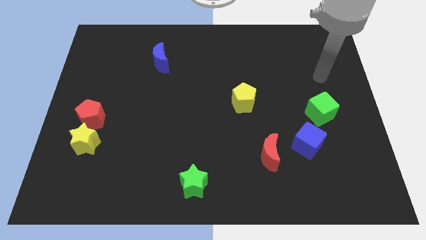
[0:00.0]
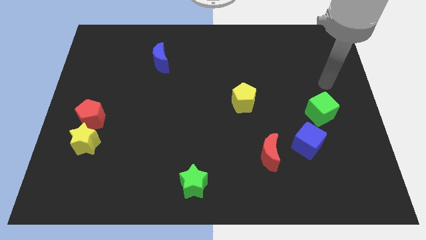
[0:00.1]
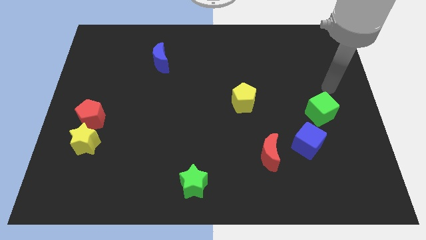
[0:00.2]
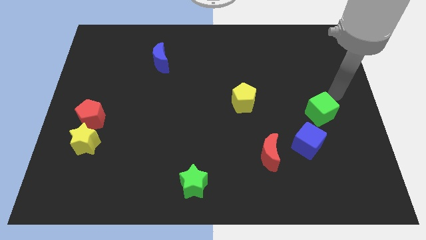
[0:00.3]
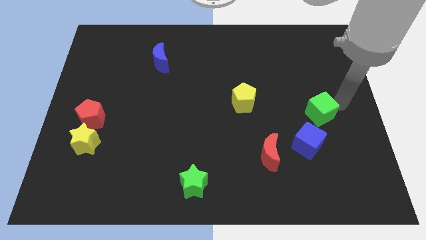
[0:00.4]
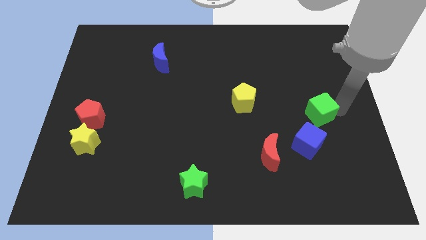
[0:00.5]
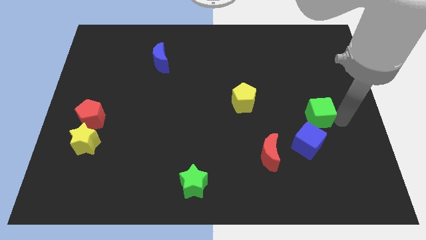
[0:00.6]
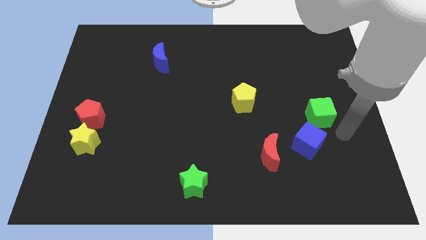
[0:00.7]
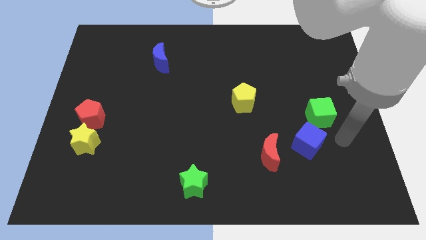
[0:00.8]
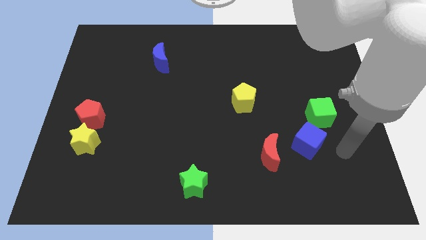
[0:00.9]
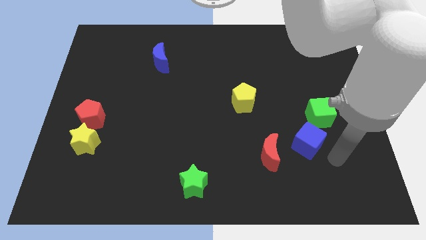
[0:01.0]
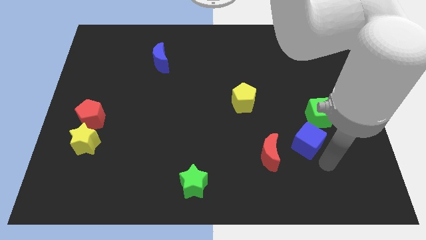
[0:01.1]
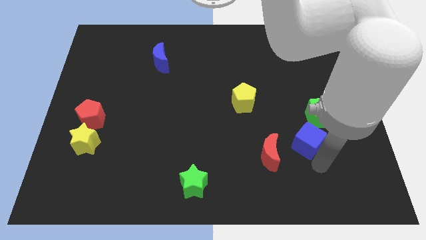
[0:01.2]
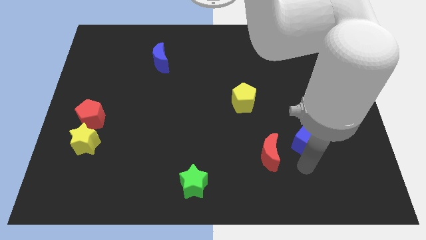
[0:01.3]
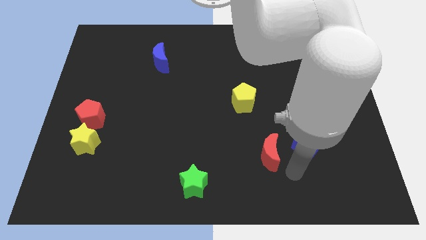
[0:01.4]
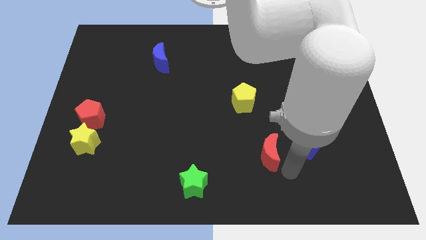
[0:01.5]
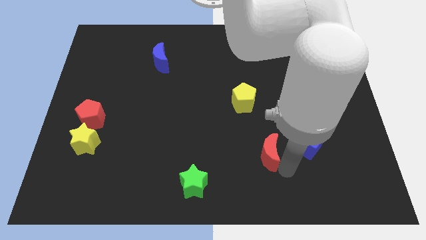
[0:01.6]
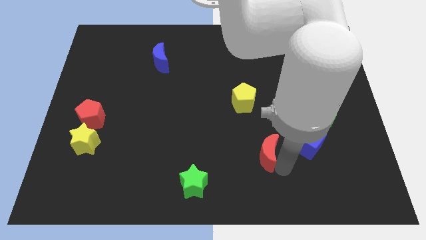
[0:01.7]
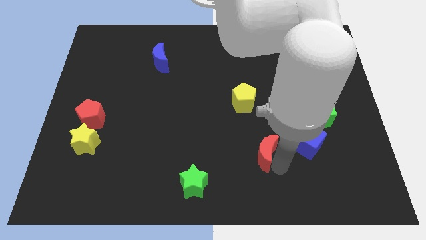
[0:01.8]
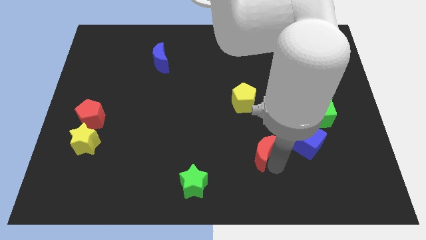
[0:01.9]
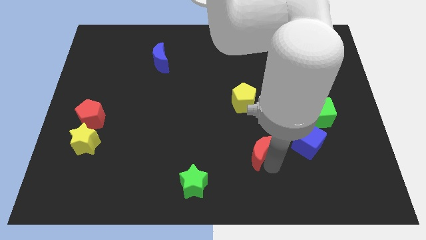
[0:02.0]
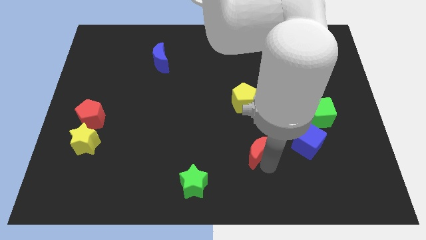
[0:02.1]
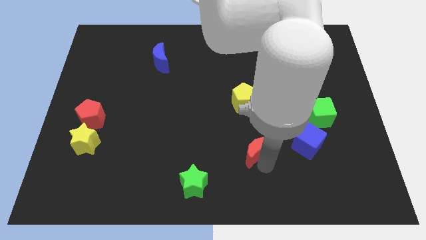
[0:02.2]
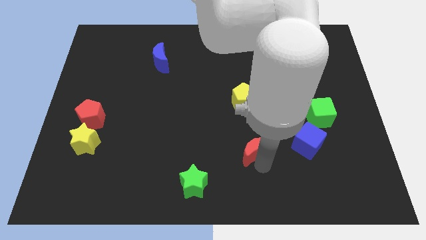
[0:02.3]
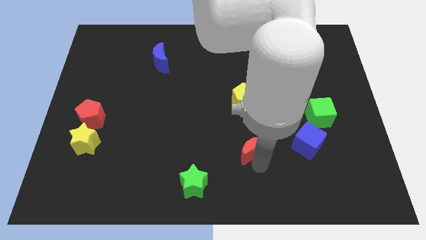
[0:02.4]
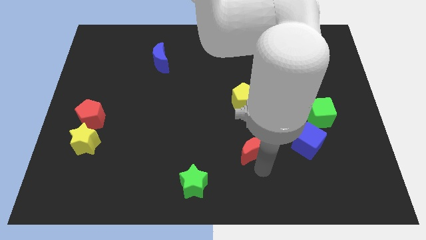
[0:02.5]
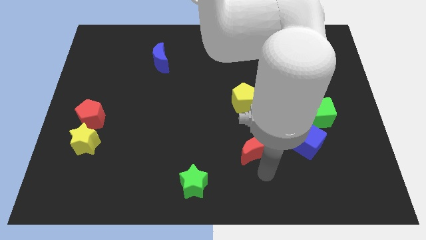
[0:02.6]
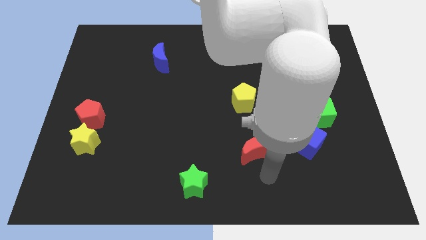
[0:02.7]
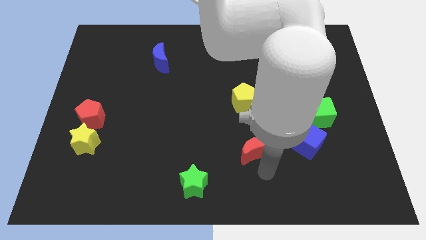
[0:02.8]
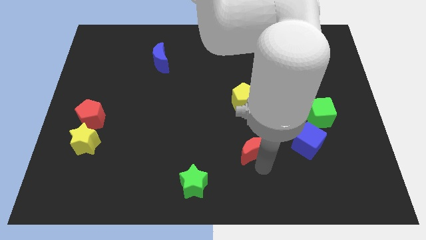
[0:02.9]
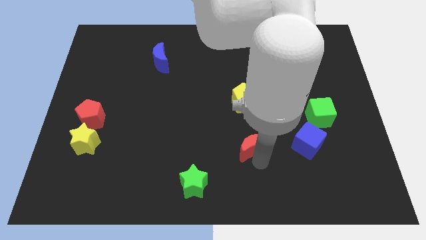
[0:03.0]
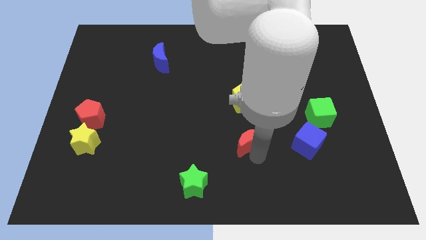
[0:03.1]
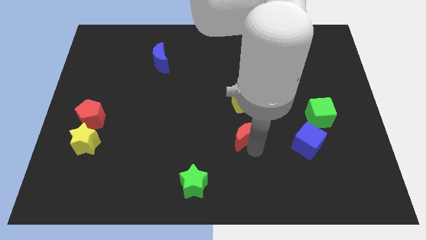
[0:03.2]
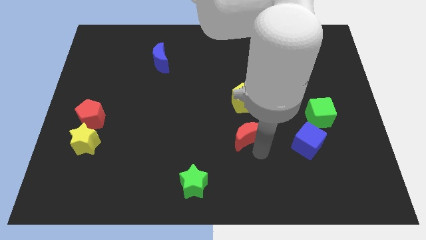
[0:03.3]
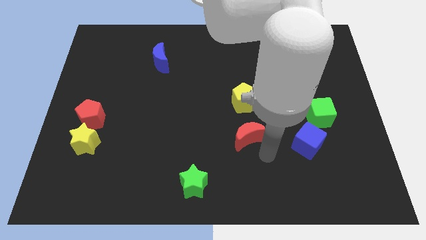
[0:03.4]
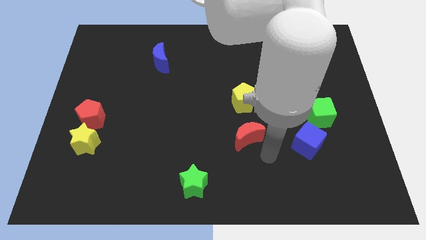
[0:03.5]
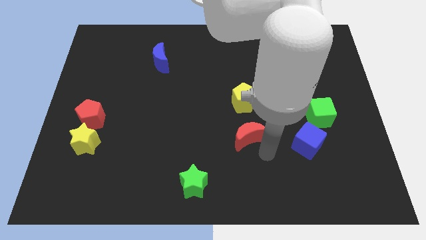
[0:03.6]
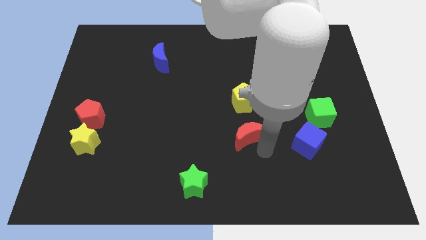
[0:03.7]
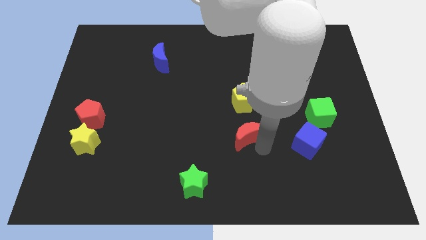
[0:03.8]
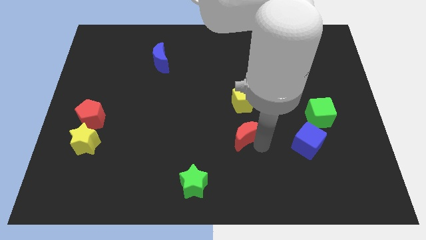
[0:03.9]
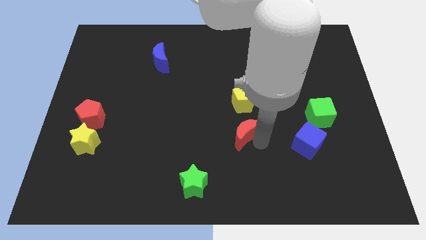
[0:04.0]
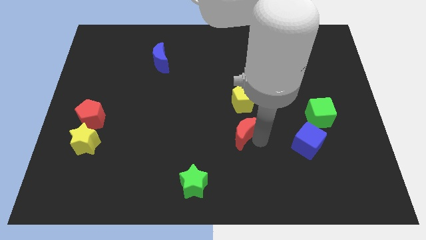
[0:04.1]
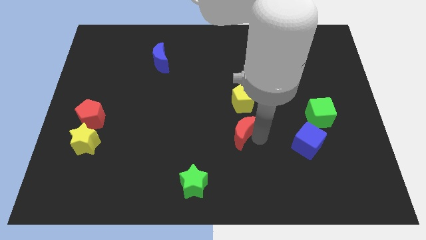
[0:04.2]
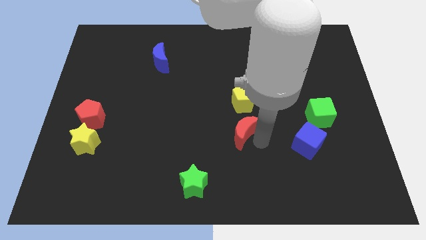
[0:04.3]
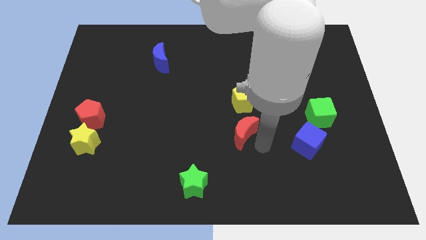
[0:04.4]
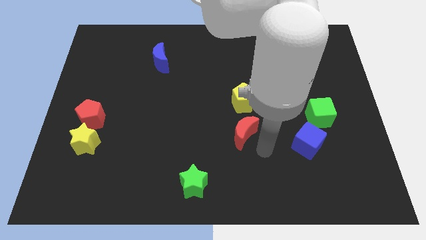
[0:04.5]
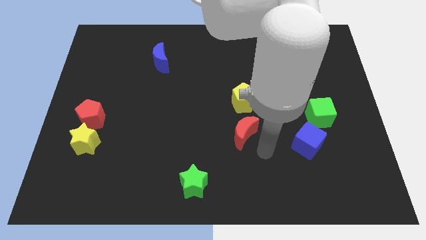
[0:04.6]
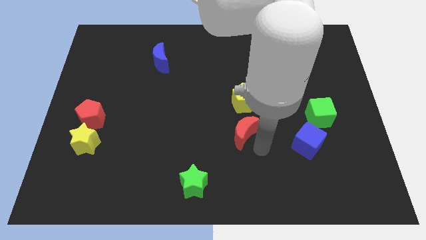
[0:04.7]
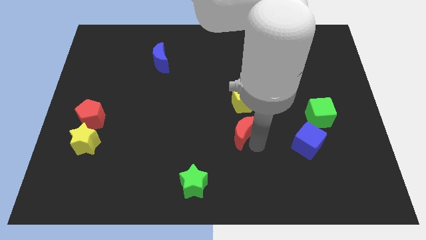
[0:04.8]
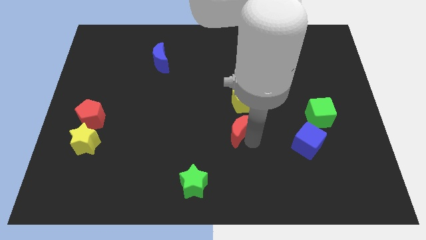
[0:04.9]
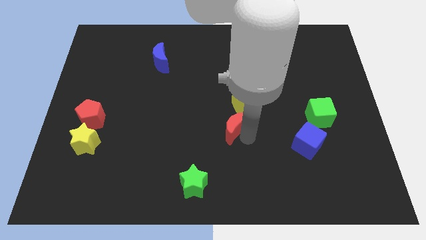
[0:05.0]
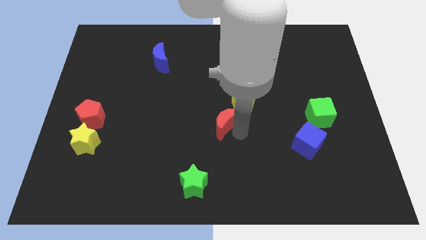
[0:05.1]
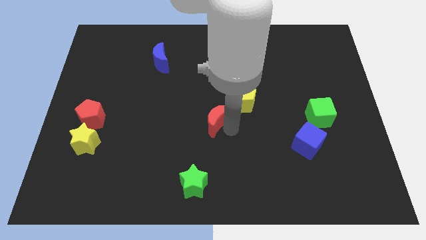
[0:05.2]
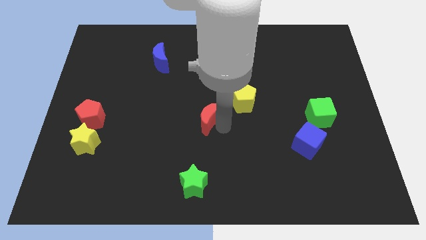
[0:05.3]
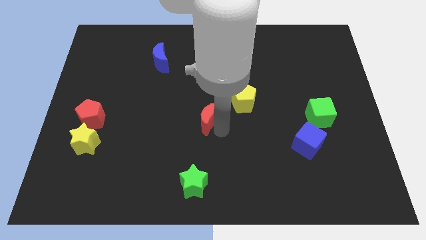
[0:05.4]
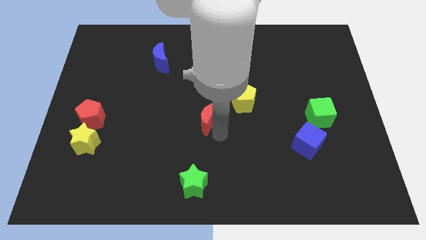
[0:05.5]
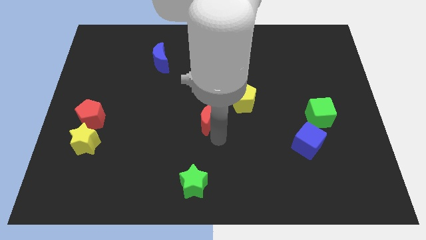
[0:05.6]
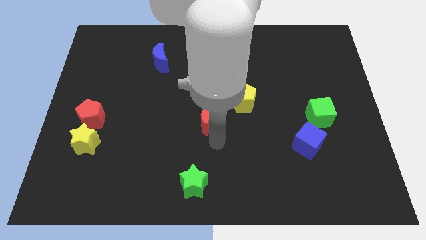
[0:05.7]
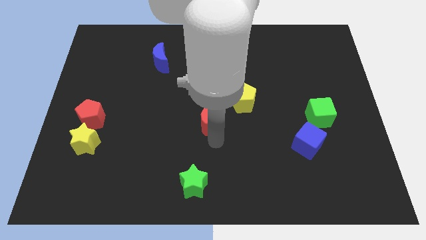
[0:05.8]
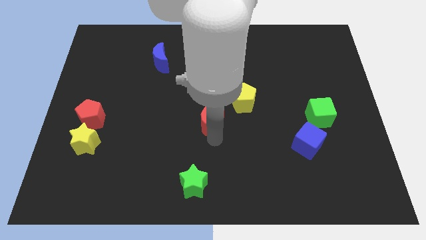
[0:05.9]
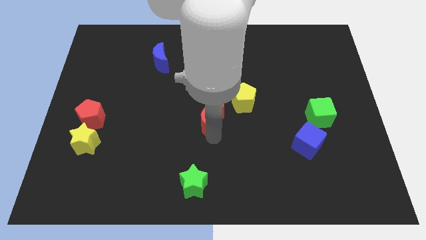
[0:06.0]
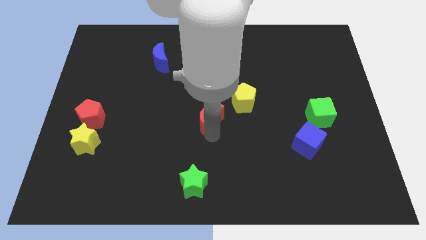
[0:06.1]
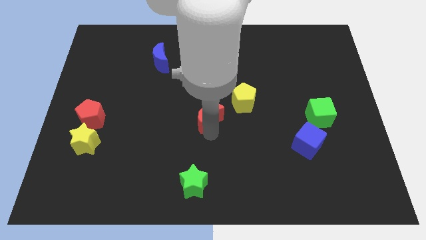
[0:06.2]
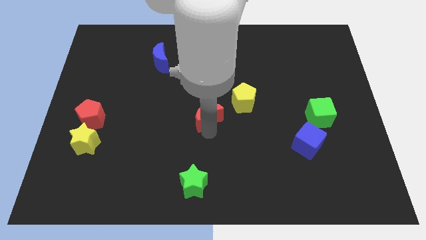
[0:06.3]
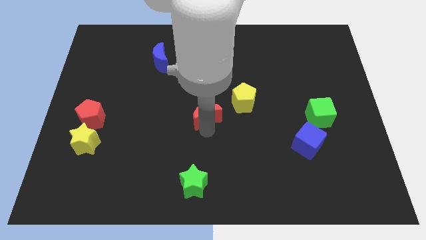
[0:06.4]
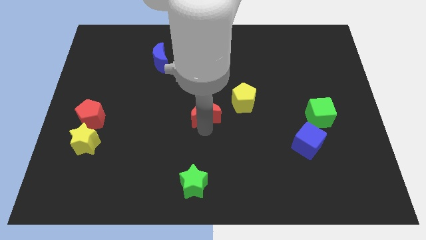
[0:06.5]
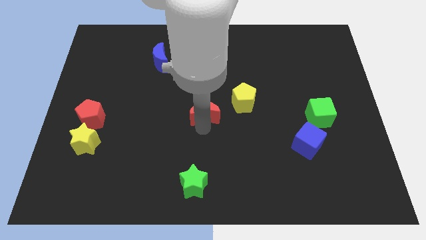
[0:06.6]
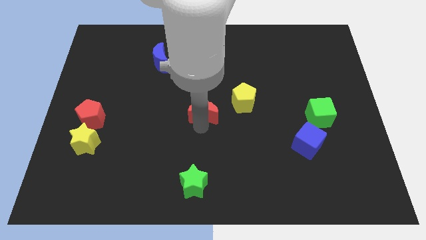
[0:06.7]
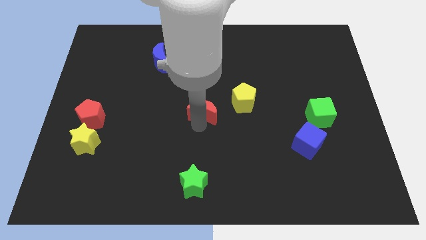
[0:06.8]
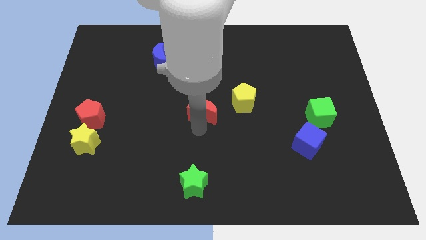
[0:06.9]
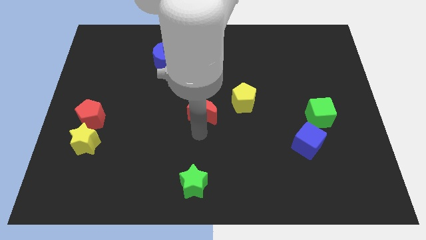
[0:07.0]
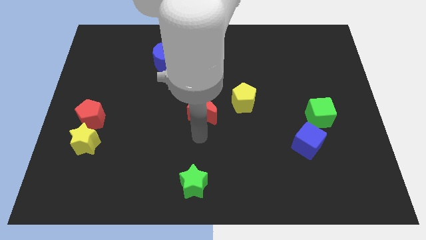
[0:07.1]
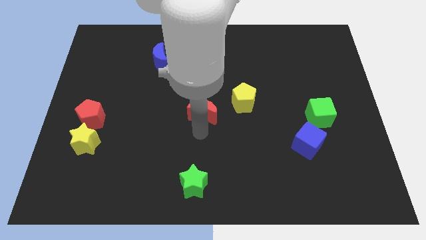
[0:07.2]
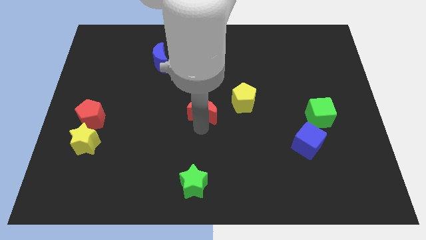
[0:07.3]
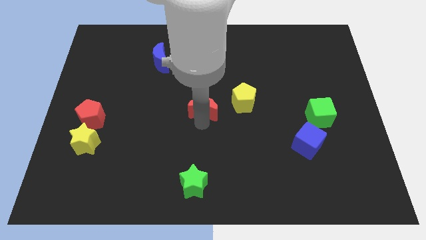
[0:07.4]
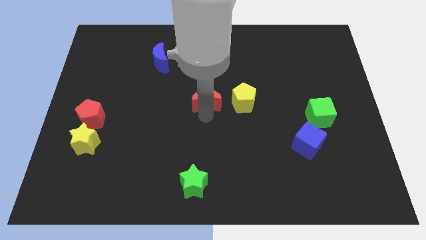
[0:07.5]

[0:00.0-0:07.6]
push the red moon upwards and then left

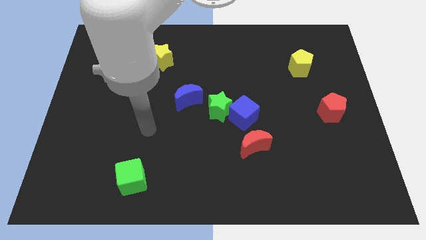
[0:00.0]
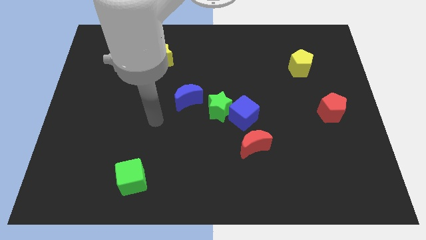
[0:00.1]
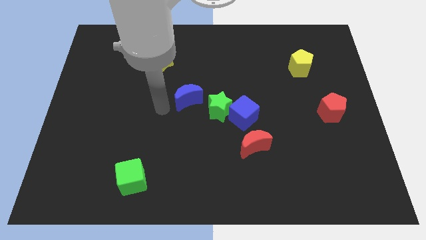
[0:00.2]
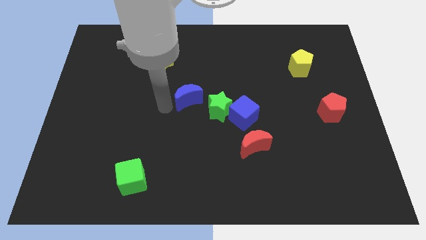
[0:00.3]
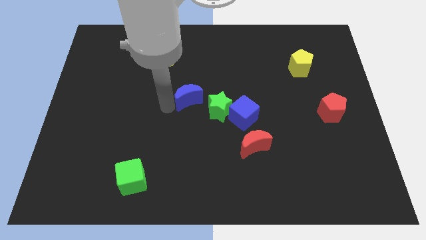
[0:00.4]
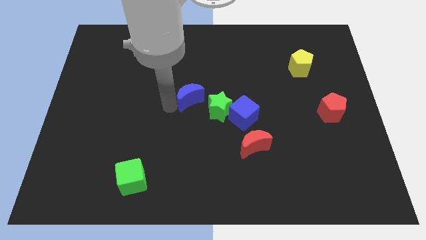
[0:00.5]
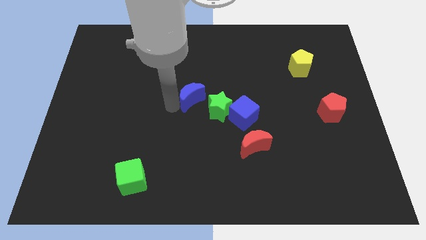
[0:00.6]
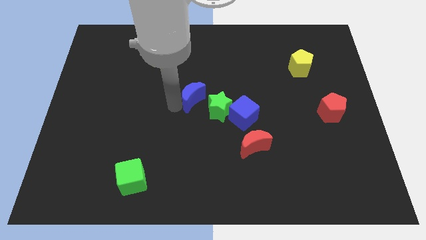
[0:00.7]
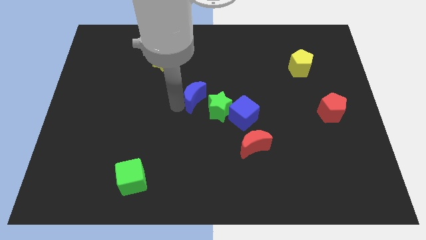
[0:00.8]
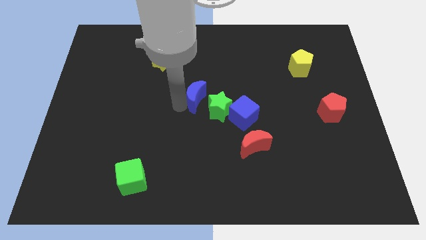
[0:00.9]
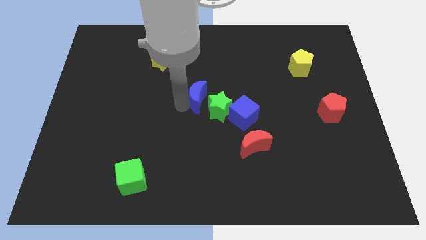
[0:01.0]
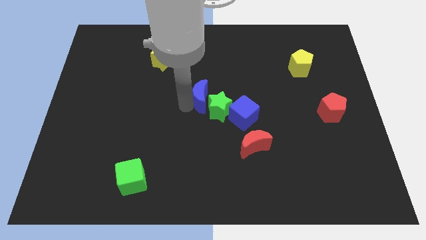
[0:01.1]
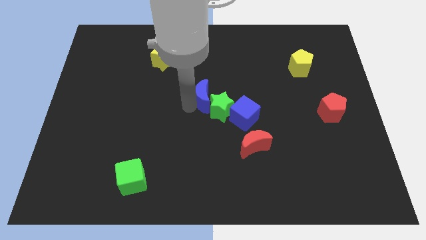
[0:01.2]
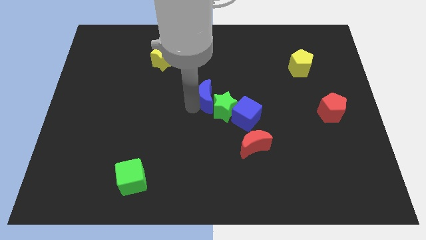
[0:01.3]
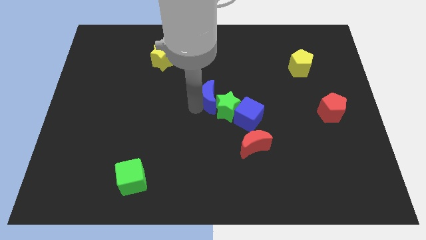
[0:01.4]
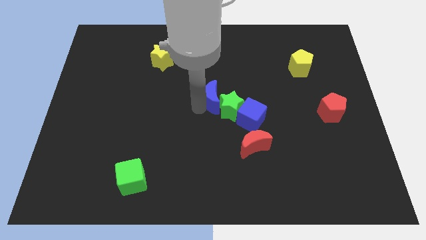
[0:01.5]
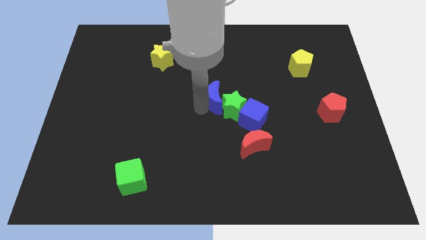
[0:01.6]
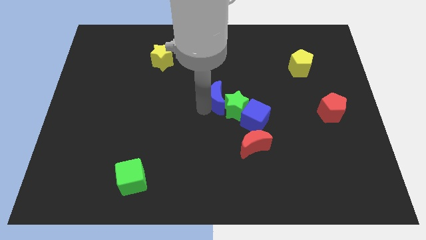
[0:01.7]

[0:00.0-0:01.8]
slide the blue moon a little bit to the right
